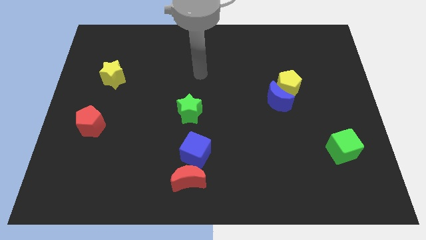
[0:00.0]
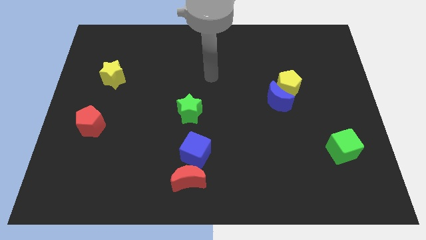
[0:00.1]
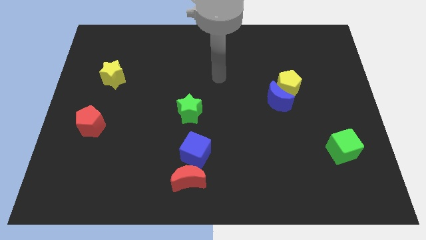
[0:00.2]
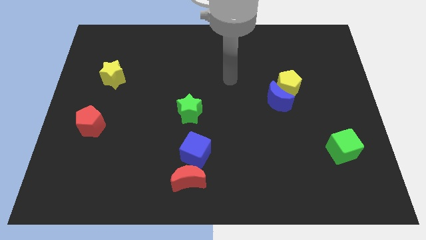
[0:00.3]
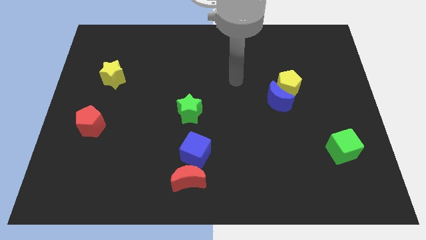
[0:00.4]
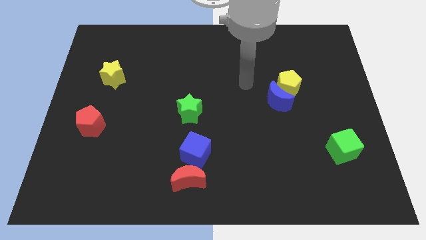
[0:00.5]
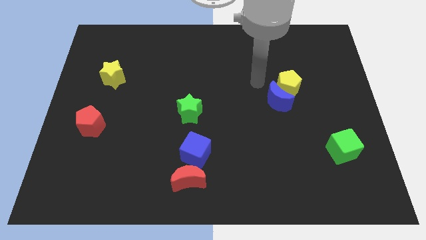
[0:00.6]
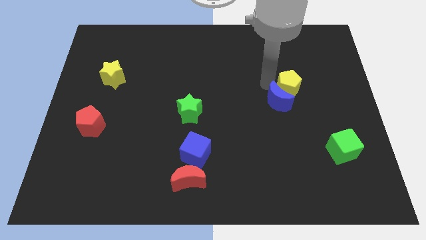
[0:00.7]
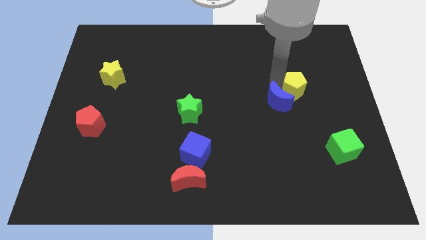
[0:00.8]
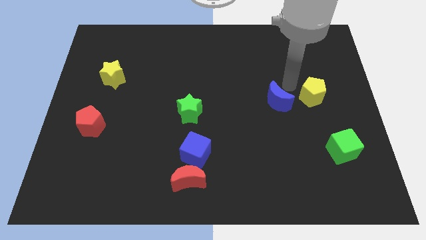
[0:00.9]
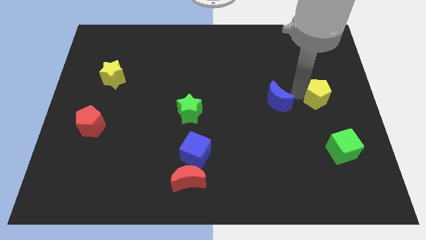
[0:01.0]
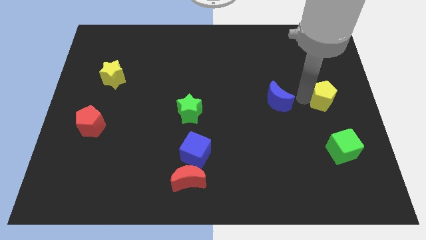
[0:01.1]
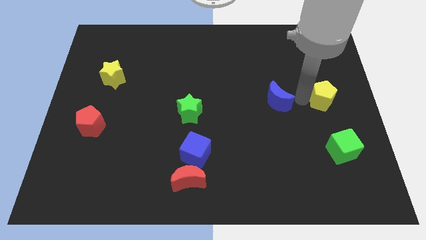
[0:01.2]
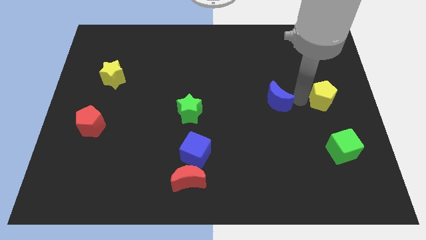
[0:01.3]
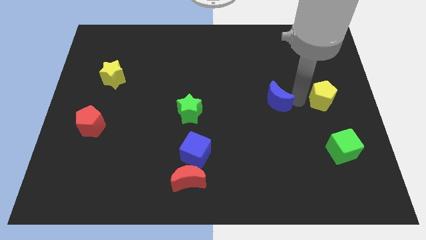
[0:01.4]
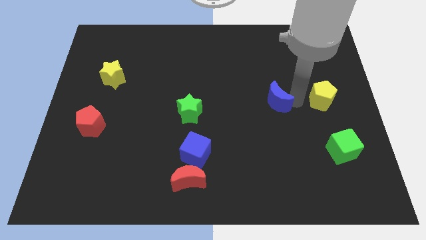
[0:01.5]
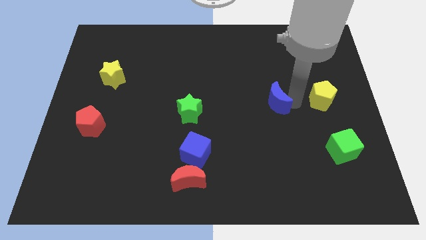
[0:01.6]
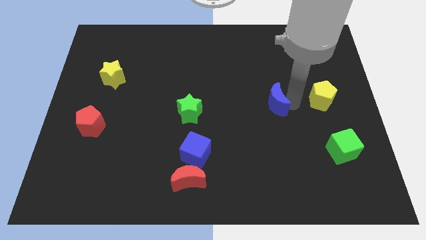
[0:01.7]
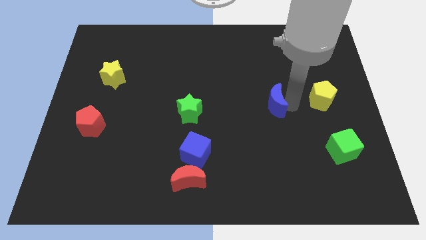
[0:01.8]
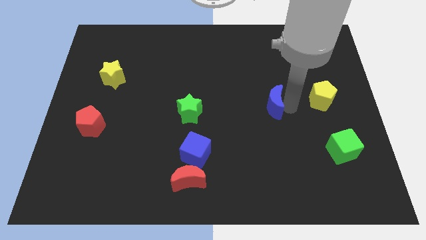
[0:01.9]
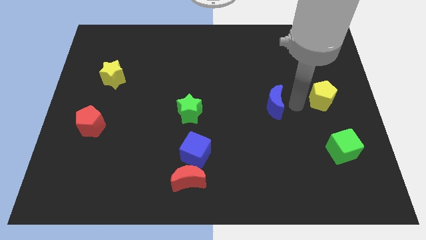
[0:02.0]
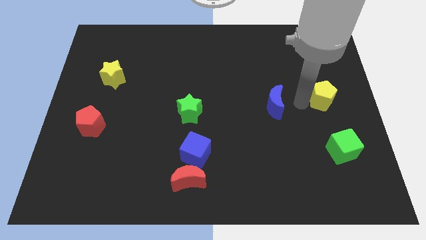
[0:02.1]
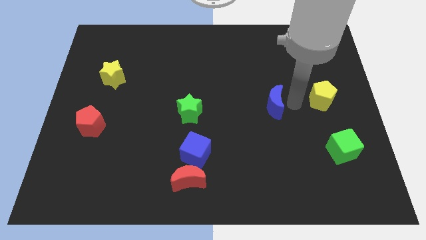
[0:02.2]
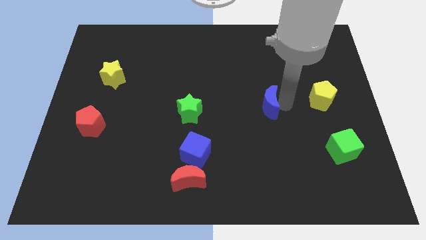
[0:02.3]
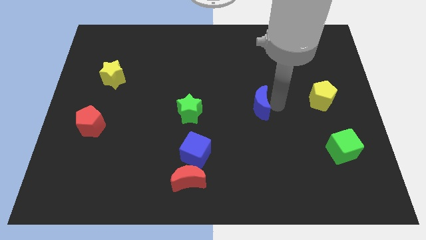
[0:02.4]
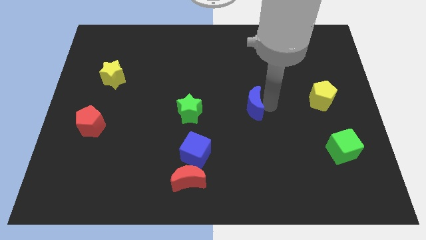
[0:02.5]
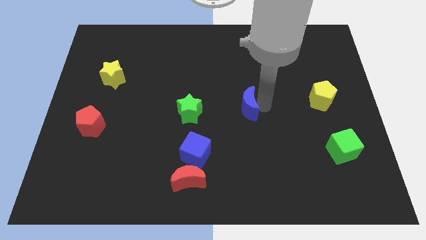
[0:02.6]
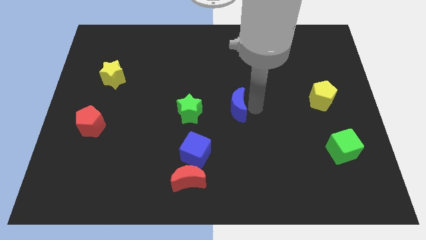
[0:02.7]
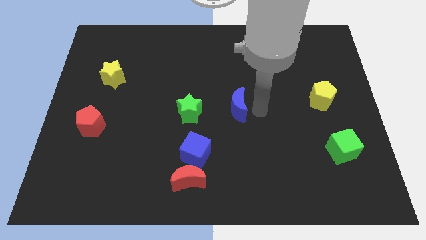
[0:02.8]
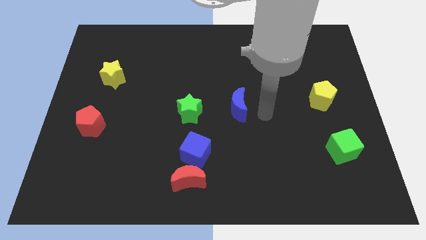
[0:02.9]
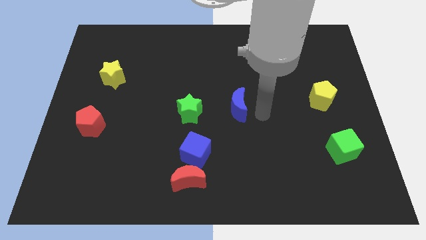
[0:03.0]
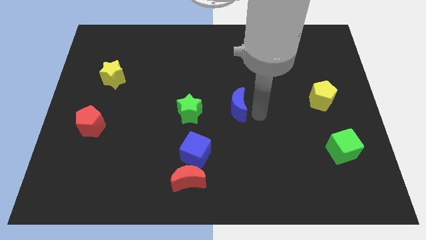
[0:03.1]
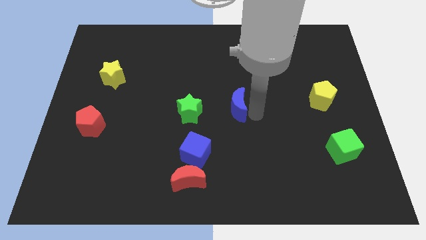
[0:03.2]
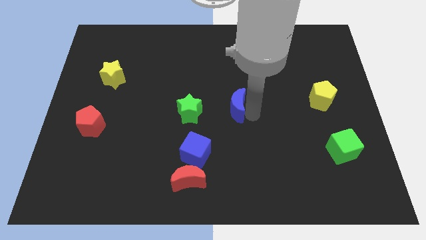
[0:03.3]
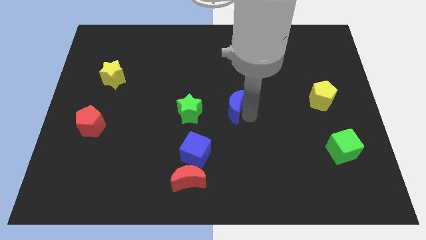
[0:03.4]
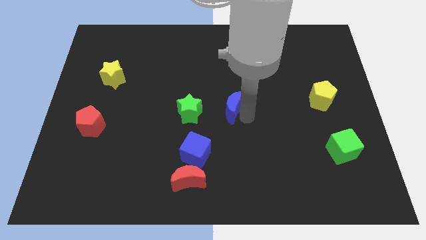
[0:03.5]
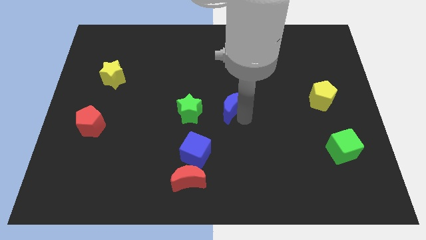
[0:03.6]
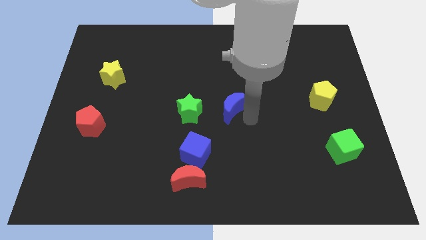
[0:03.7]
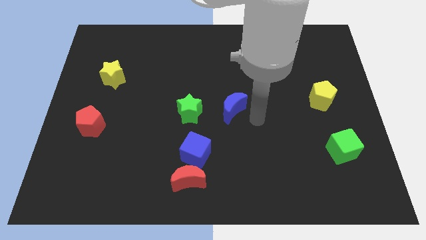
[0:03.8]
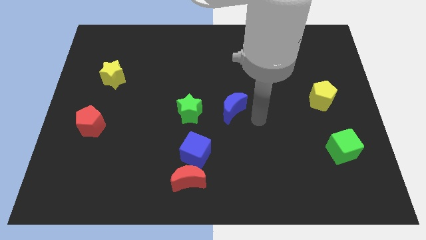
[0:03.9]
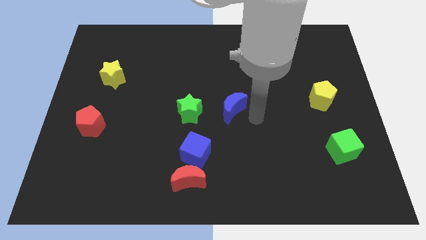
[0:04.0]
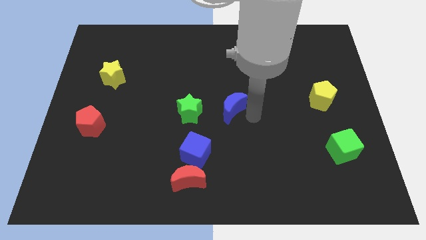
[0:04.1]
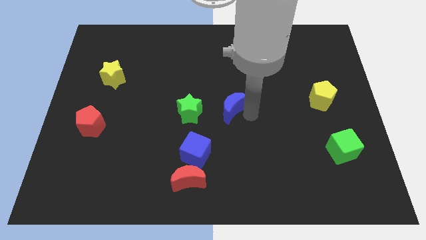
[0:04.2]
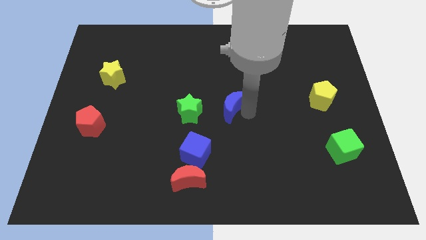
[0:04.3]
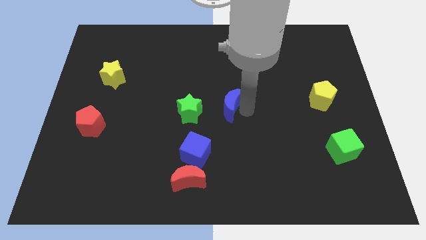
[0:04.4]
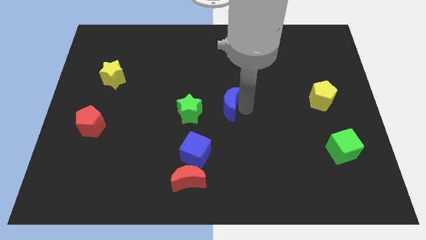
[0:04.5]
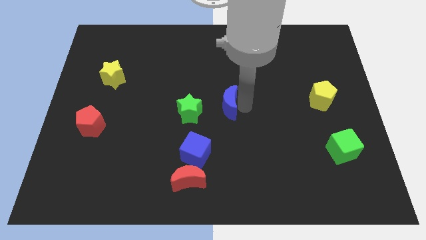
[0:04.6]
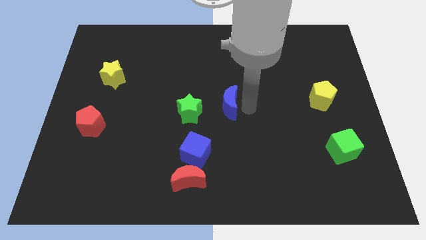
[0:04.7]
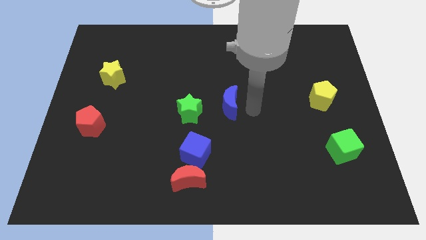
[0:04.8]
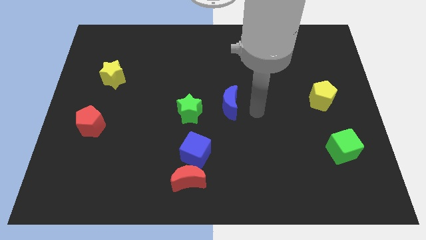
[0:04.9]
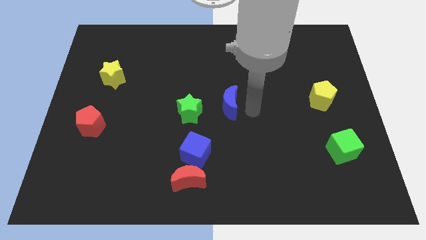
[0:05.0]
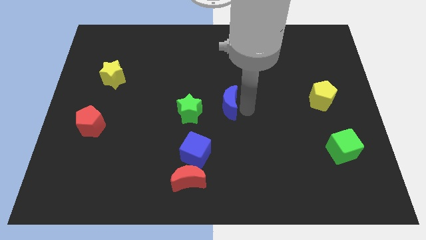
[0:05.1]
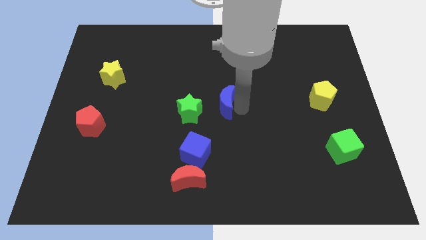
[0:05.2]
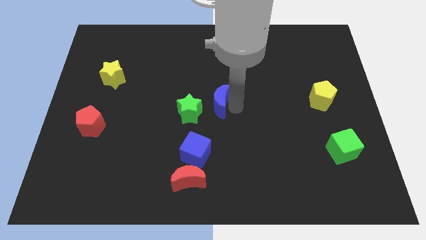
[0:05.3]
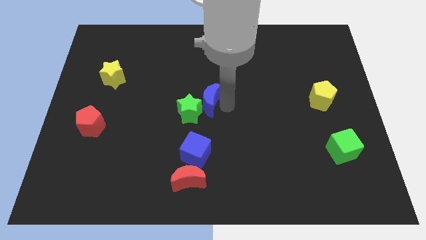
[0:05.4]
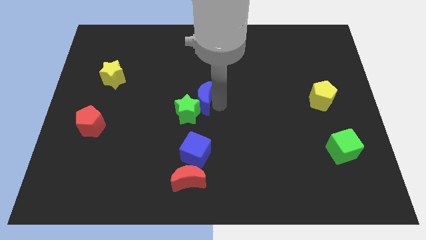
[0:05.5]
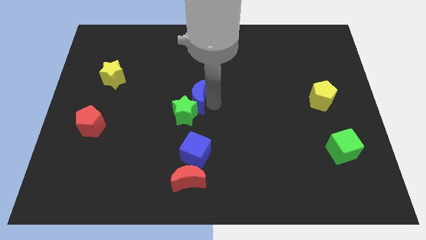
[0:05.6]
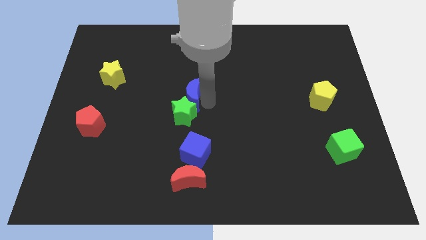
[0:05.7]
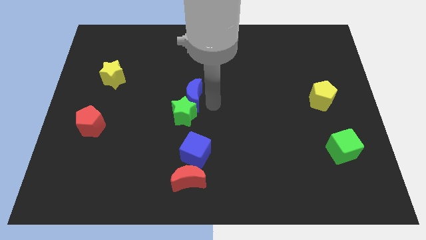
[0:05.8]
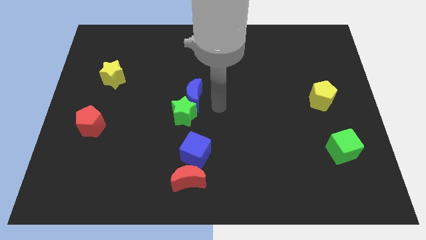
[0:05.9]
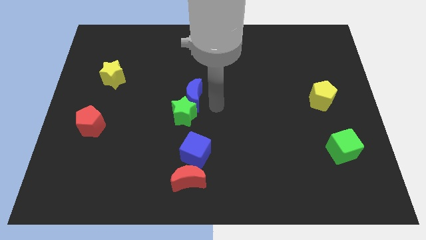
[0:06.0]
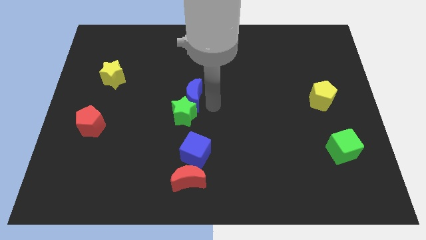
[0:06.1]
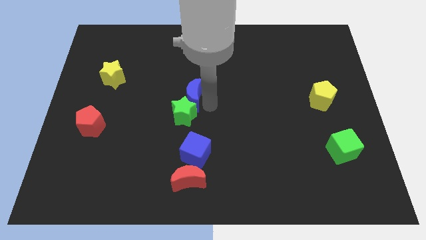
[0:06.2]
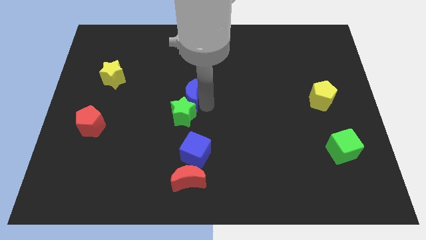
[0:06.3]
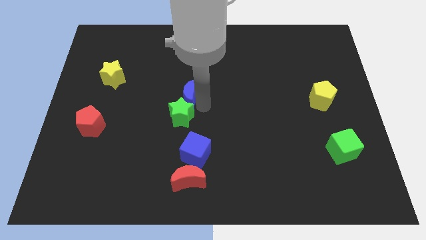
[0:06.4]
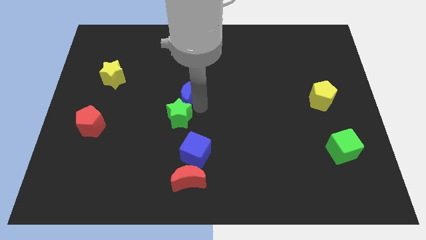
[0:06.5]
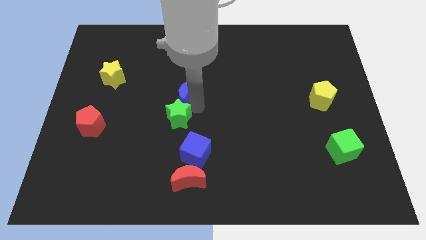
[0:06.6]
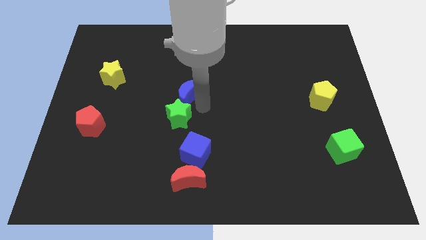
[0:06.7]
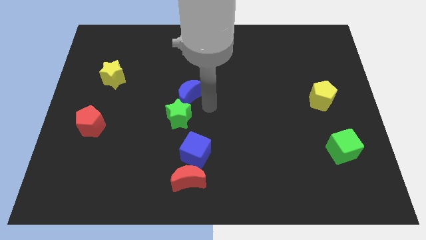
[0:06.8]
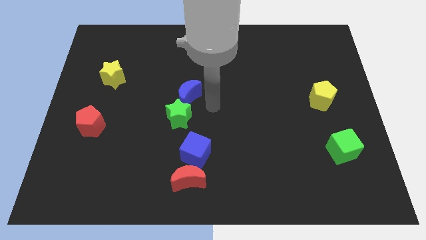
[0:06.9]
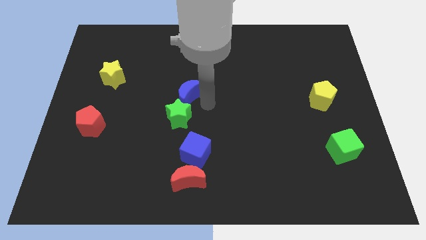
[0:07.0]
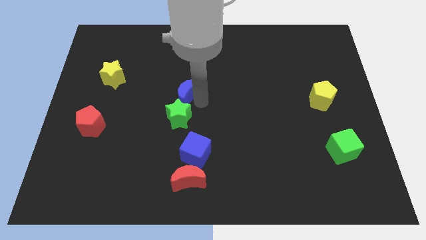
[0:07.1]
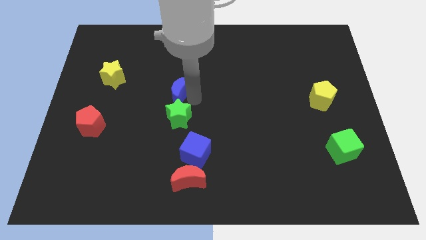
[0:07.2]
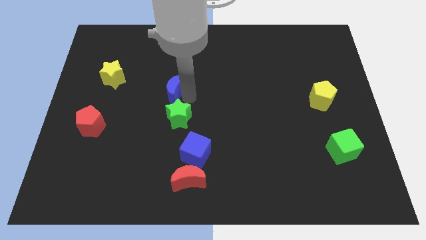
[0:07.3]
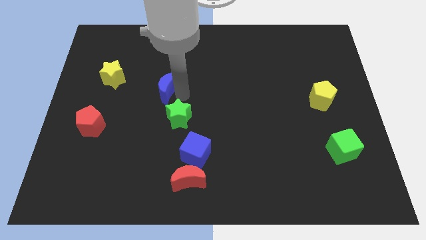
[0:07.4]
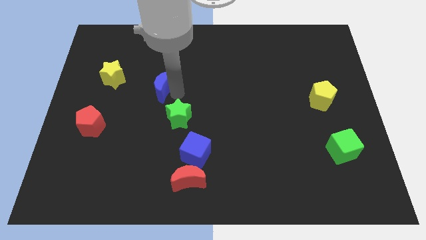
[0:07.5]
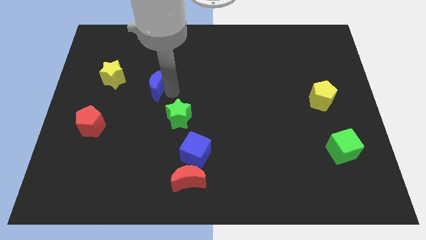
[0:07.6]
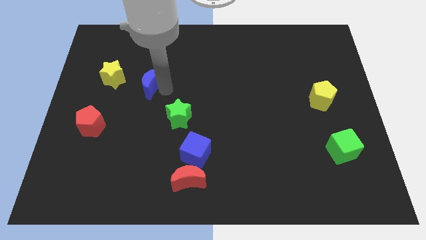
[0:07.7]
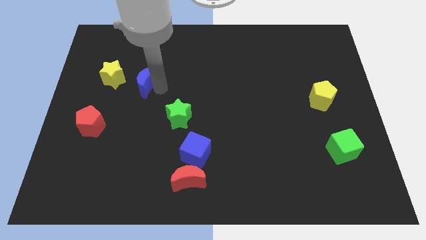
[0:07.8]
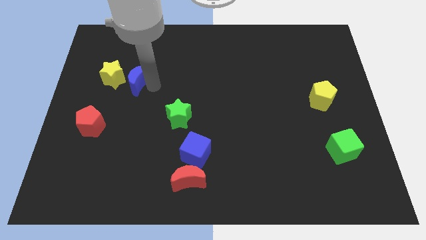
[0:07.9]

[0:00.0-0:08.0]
push the blue moon next to the yellow star
